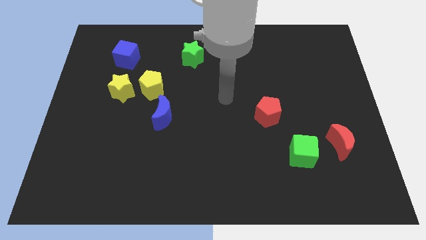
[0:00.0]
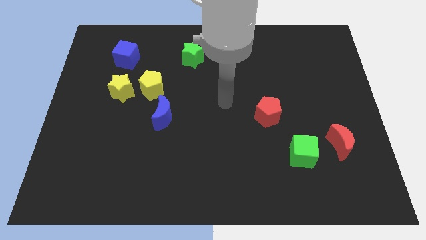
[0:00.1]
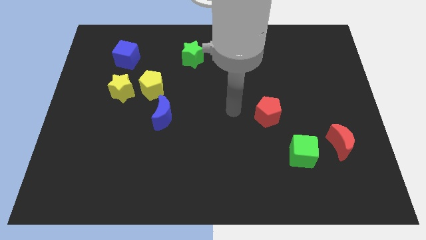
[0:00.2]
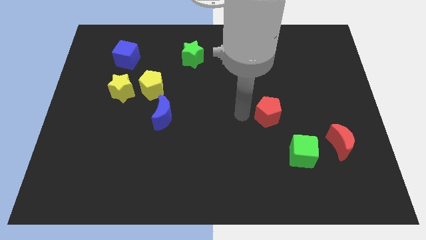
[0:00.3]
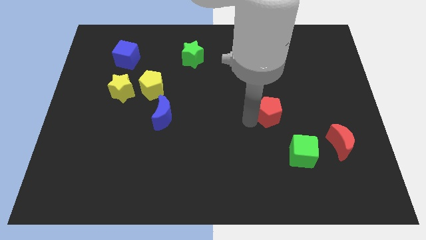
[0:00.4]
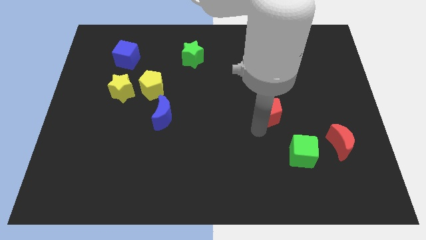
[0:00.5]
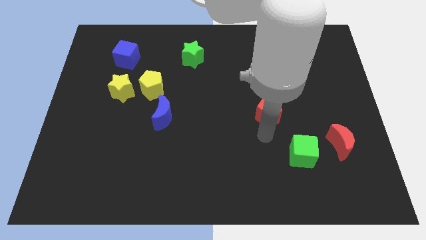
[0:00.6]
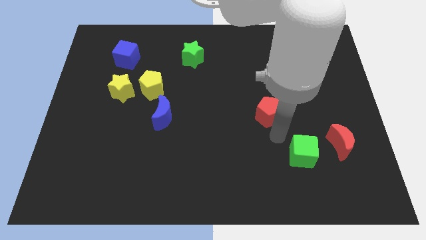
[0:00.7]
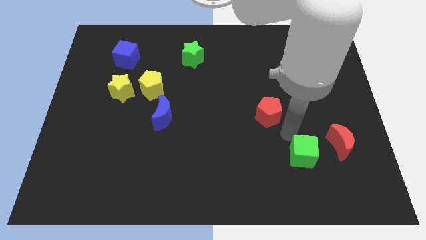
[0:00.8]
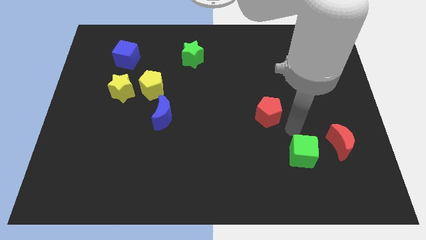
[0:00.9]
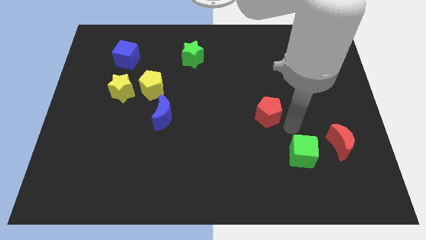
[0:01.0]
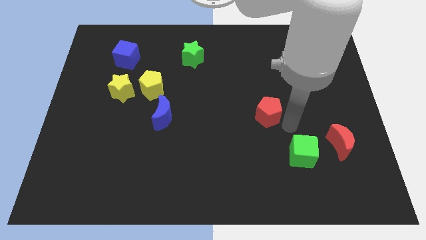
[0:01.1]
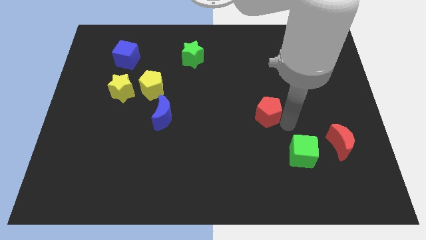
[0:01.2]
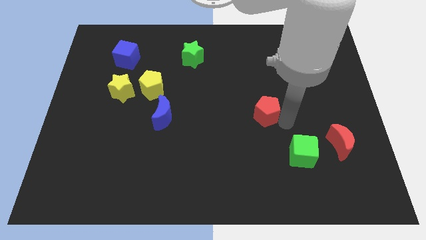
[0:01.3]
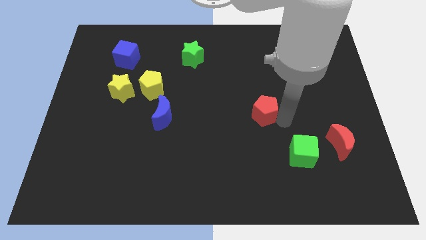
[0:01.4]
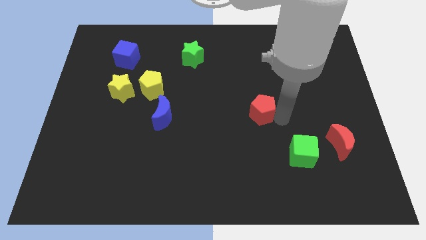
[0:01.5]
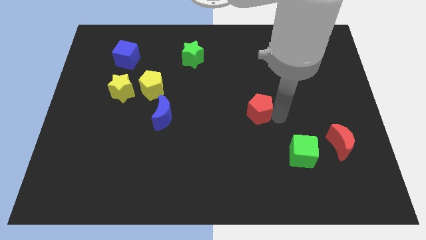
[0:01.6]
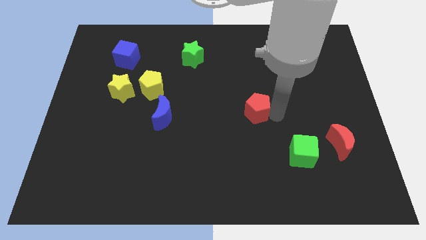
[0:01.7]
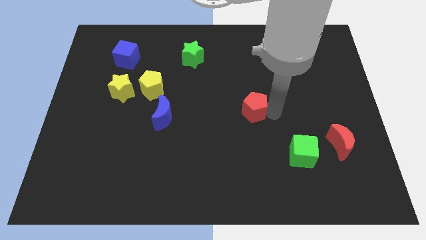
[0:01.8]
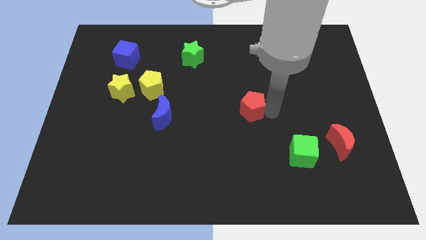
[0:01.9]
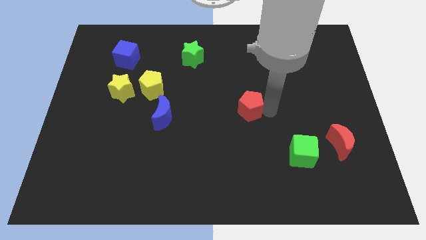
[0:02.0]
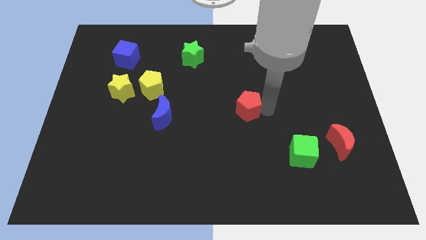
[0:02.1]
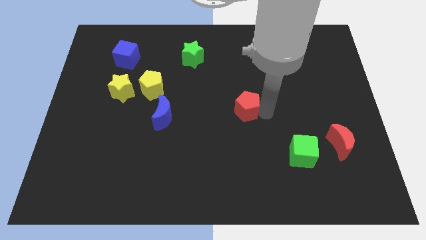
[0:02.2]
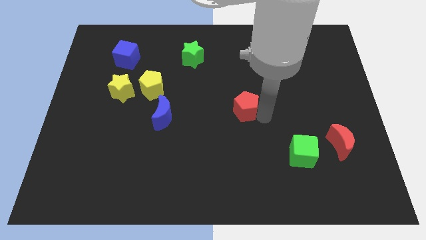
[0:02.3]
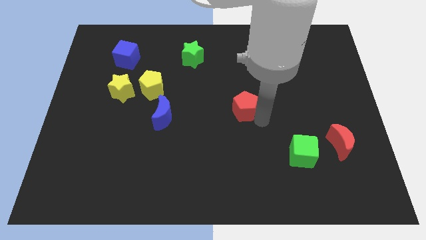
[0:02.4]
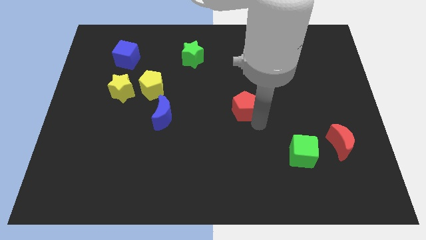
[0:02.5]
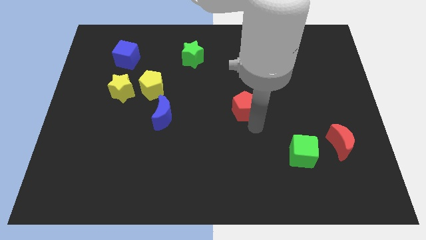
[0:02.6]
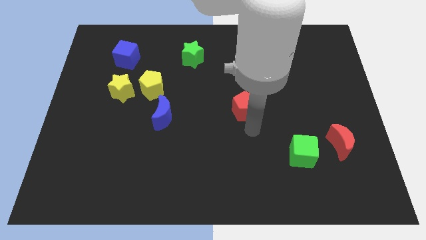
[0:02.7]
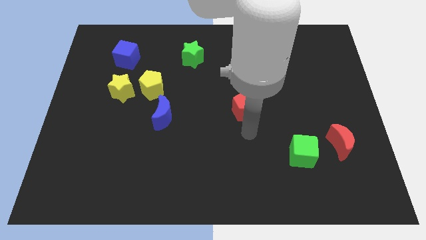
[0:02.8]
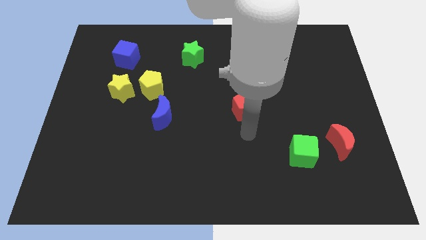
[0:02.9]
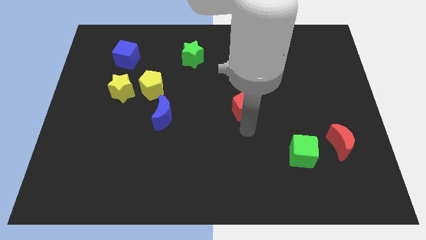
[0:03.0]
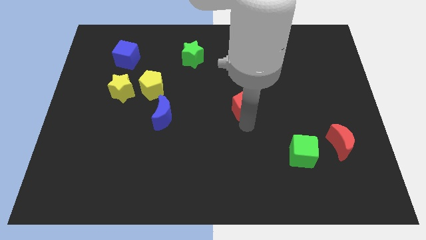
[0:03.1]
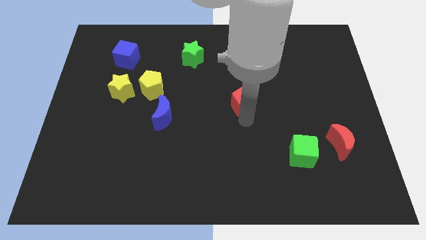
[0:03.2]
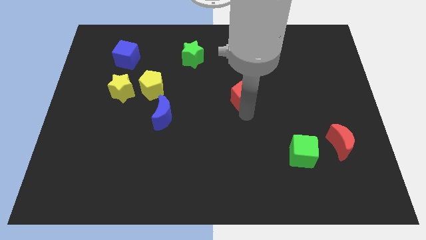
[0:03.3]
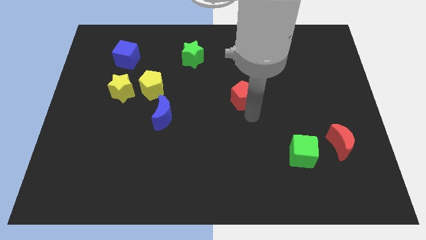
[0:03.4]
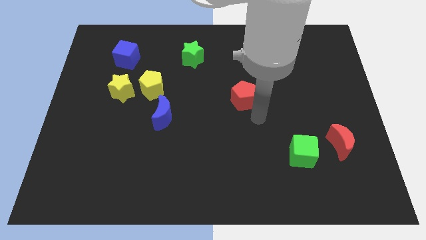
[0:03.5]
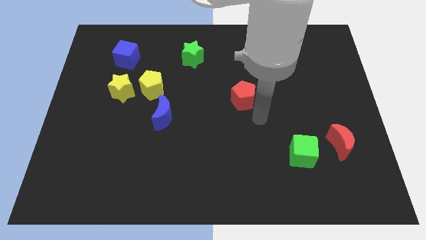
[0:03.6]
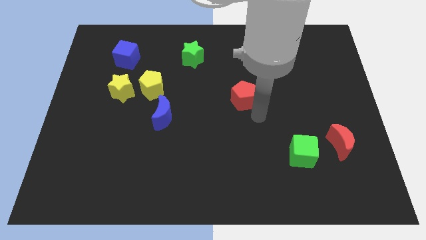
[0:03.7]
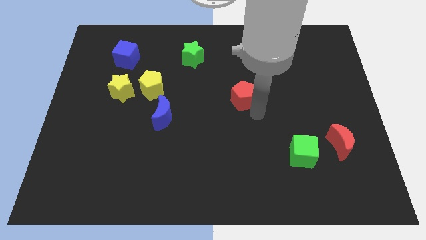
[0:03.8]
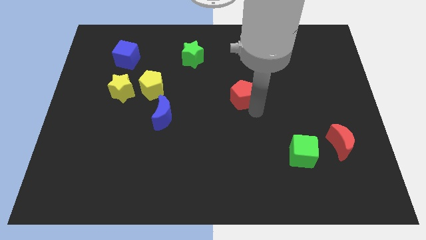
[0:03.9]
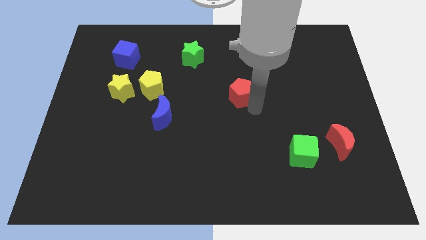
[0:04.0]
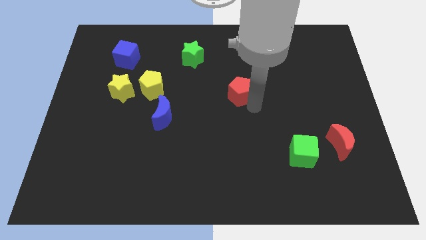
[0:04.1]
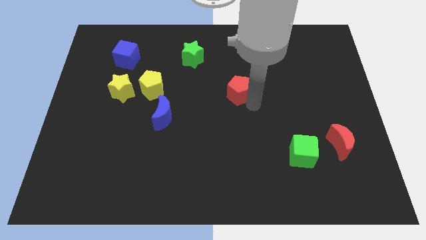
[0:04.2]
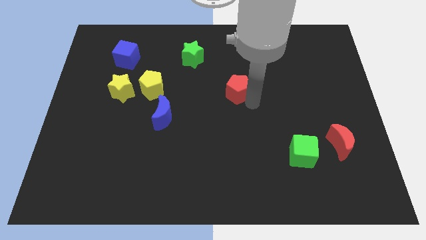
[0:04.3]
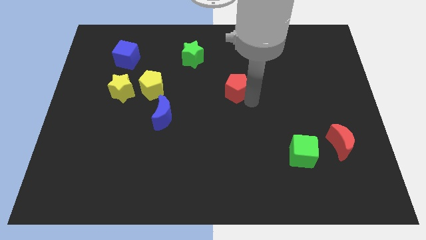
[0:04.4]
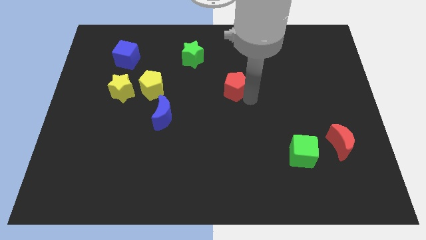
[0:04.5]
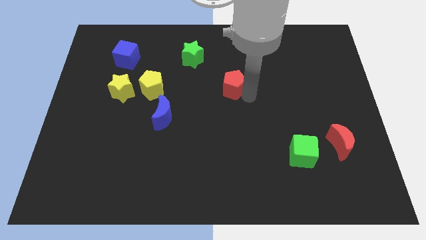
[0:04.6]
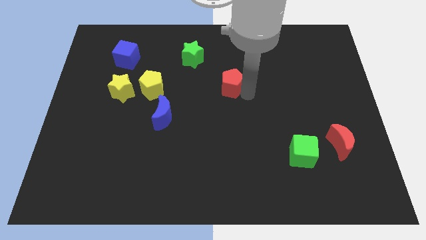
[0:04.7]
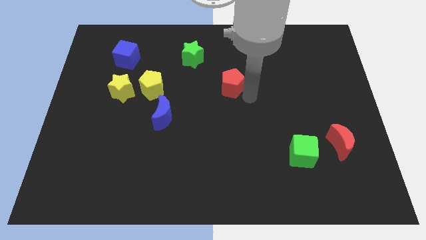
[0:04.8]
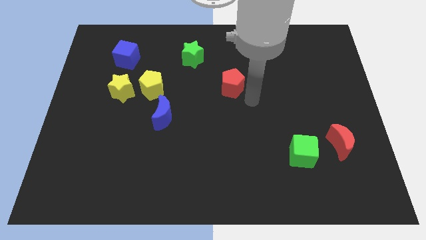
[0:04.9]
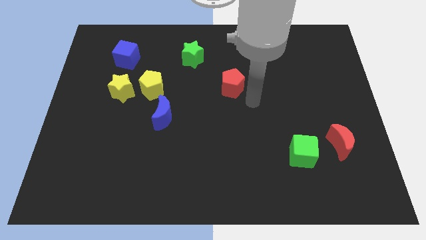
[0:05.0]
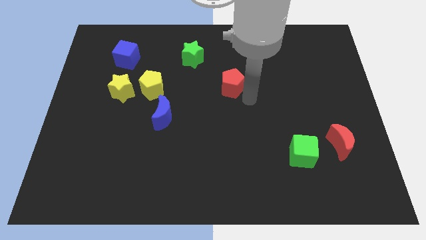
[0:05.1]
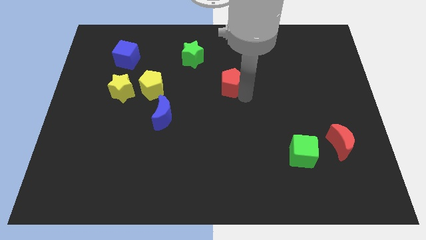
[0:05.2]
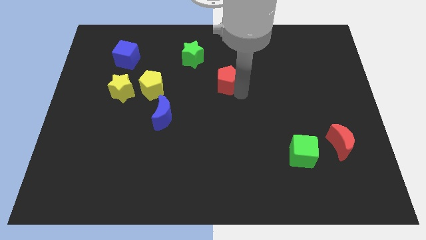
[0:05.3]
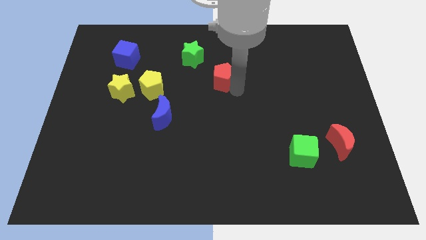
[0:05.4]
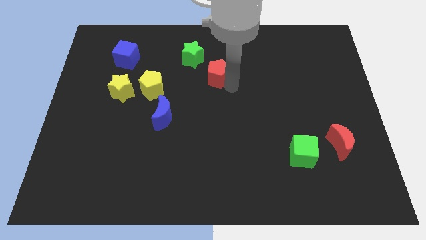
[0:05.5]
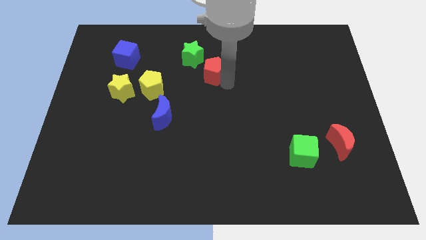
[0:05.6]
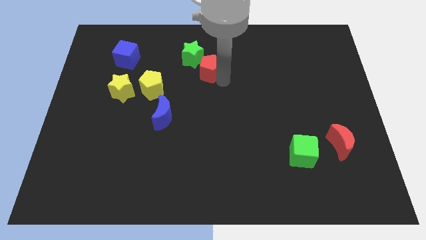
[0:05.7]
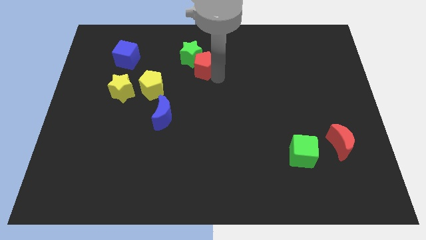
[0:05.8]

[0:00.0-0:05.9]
push the red pentagon close to the green star

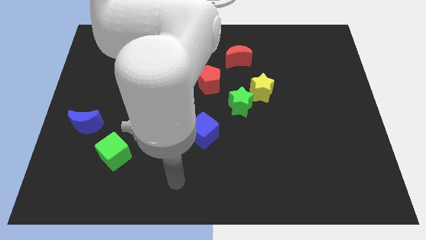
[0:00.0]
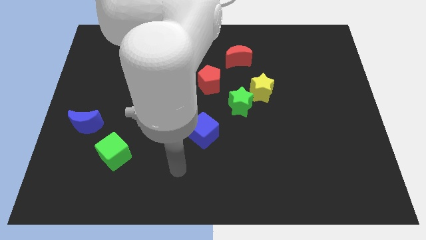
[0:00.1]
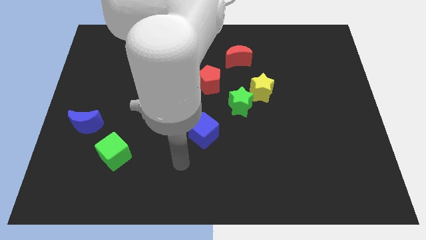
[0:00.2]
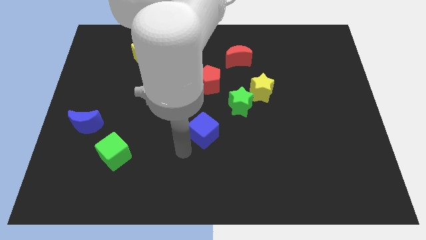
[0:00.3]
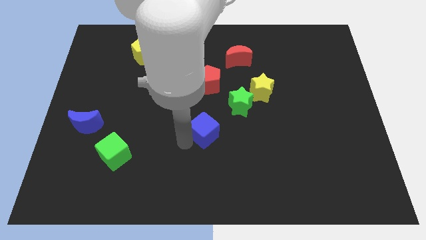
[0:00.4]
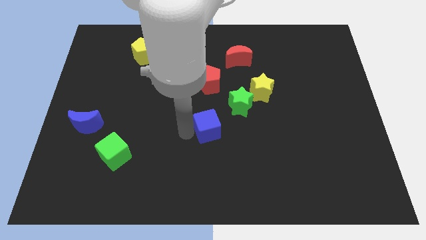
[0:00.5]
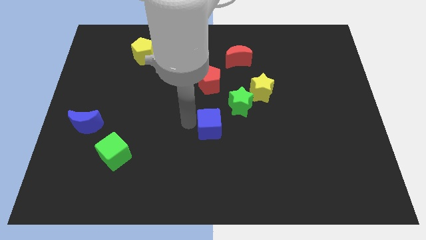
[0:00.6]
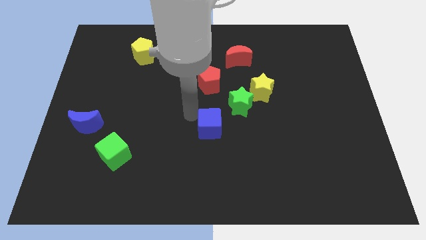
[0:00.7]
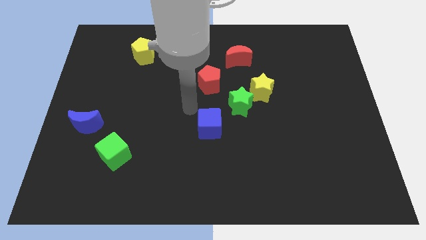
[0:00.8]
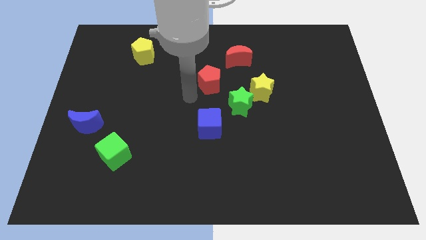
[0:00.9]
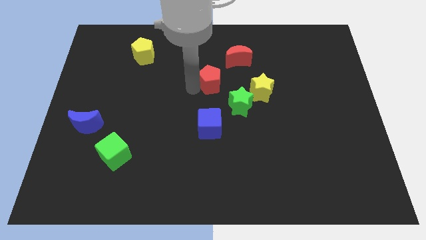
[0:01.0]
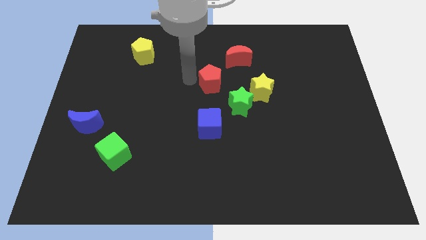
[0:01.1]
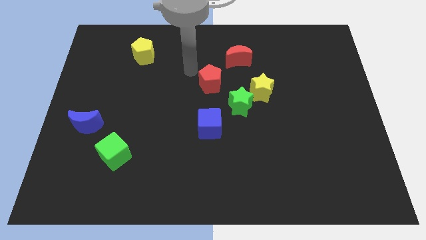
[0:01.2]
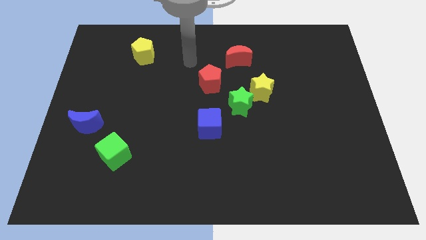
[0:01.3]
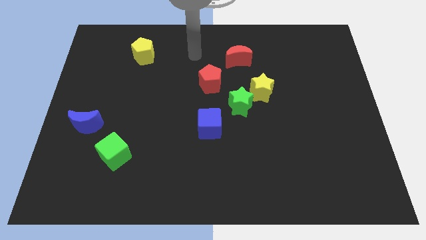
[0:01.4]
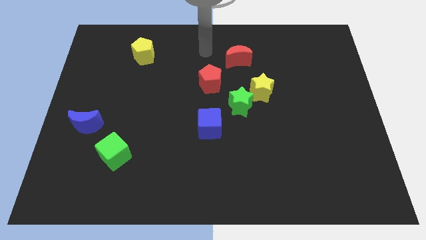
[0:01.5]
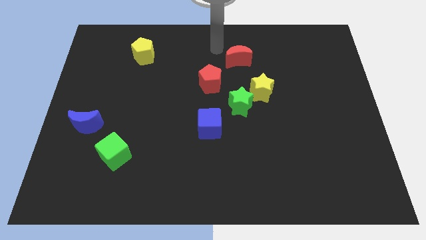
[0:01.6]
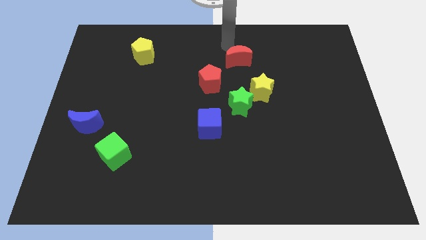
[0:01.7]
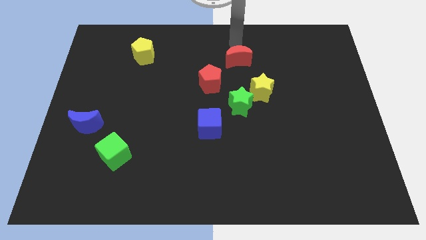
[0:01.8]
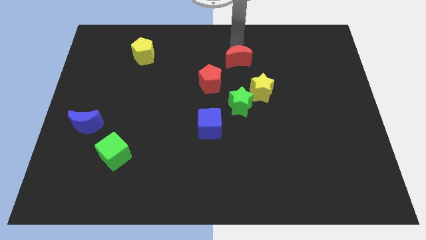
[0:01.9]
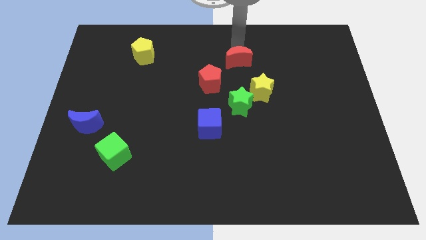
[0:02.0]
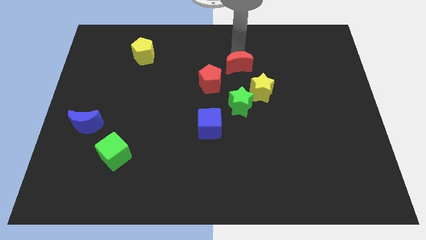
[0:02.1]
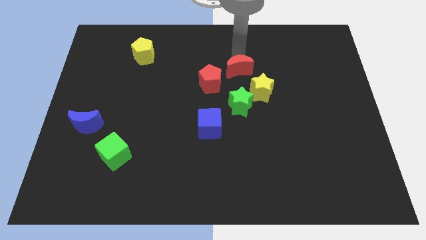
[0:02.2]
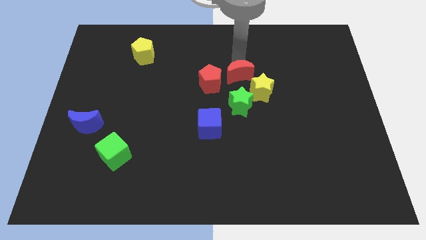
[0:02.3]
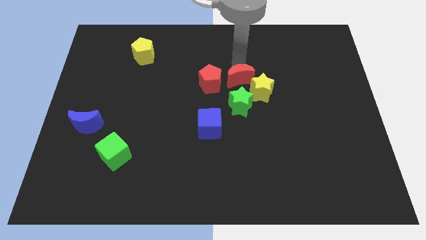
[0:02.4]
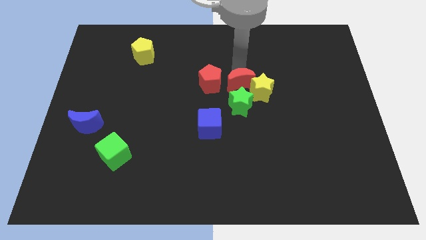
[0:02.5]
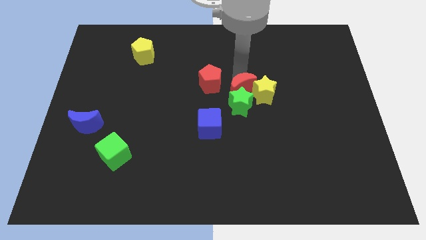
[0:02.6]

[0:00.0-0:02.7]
push the red moon to the green star
